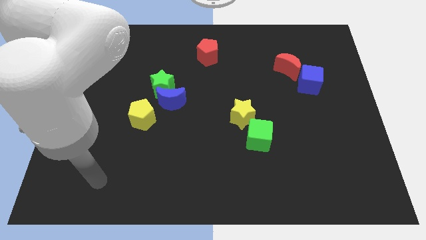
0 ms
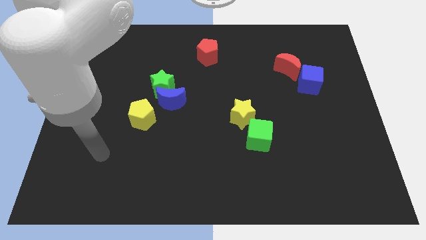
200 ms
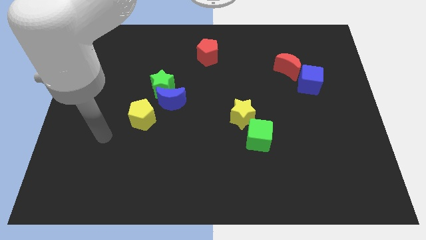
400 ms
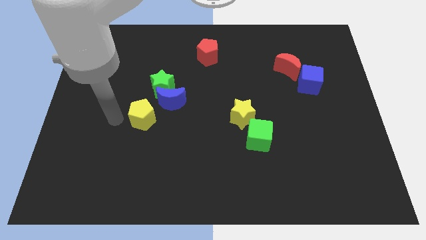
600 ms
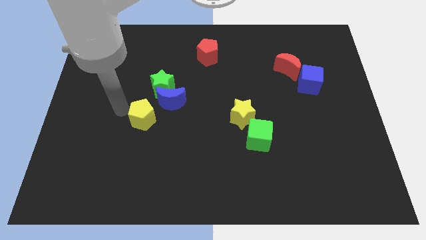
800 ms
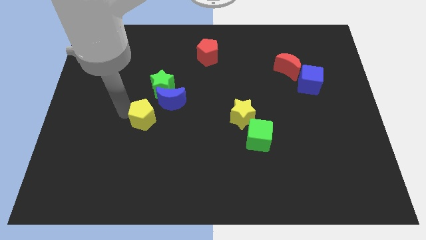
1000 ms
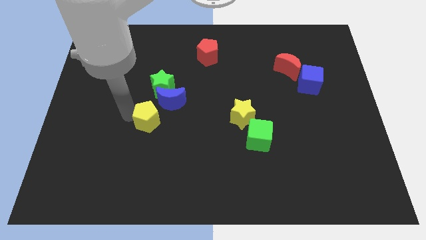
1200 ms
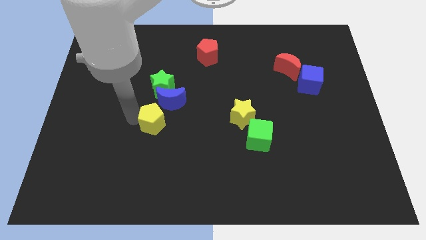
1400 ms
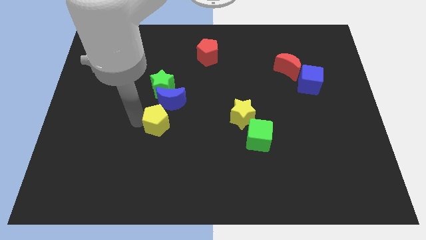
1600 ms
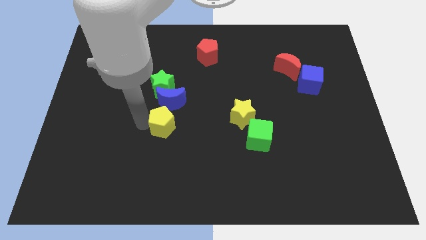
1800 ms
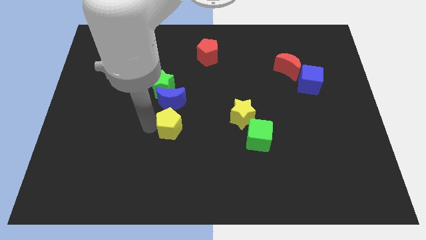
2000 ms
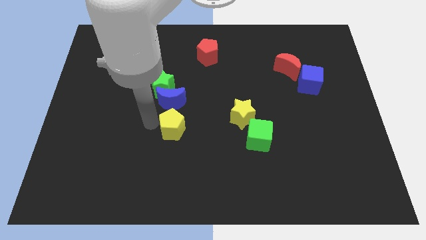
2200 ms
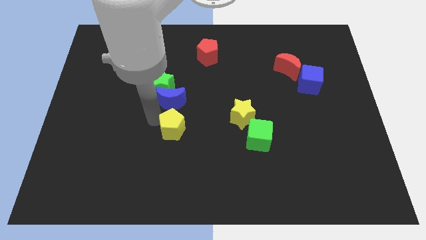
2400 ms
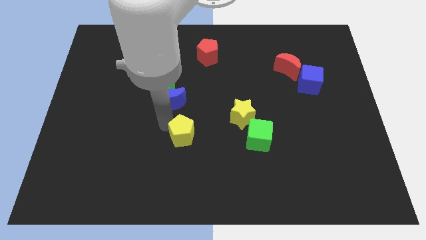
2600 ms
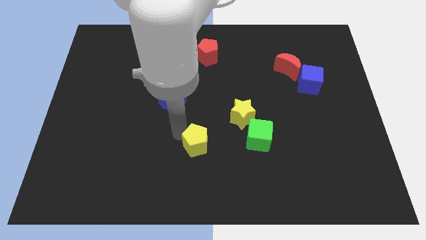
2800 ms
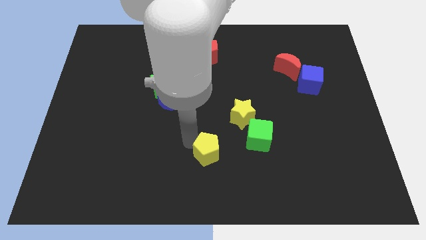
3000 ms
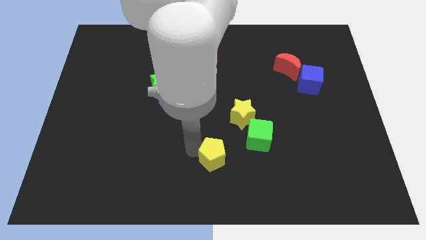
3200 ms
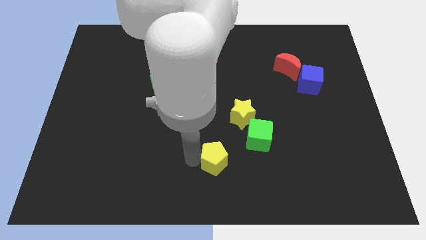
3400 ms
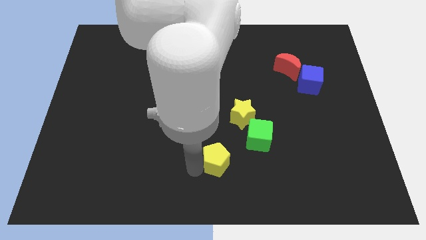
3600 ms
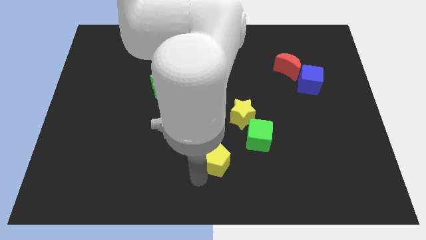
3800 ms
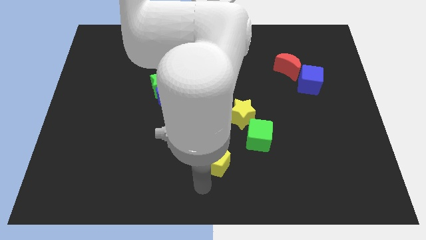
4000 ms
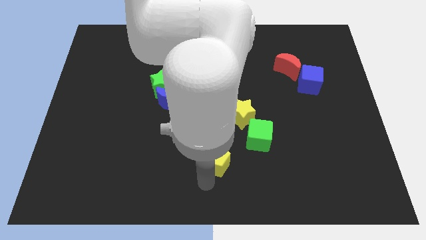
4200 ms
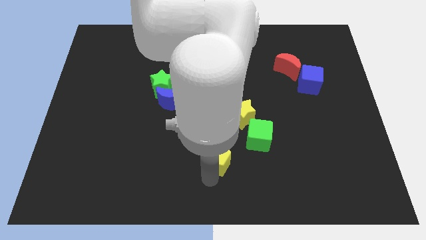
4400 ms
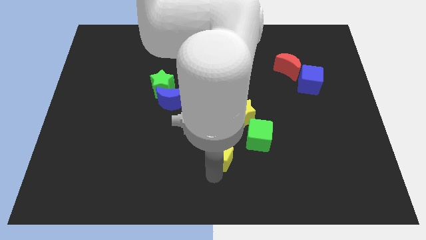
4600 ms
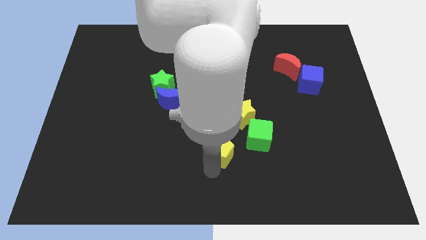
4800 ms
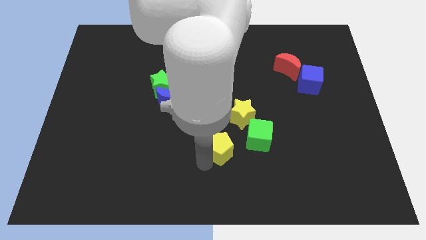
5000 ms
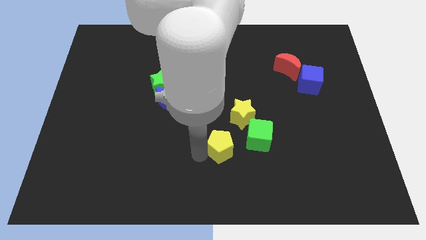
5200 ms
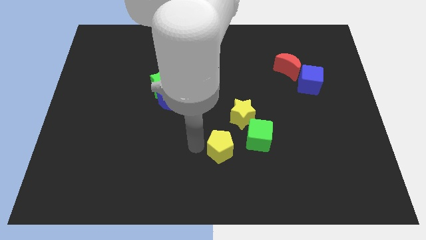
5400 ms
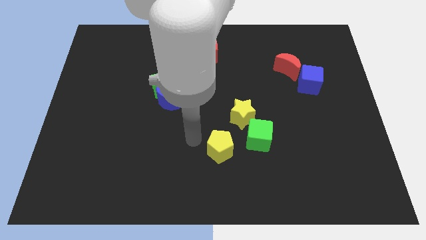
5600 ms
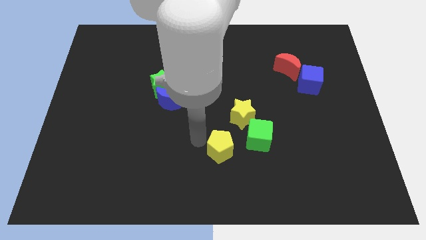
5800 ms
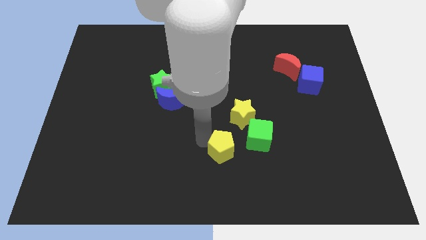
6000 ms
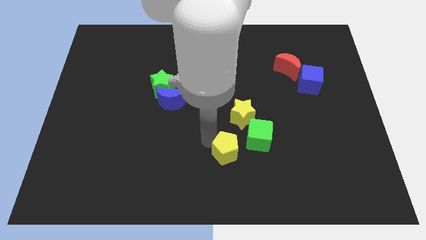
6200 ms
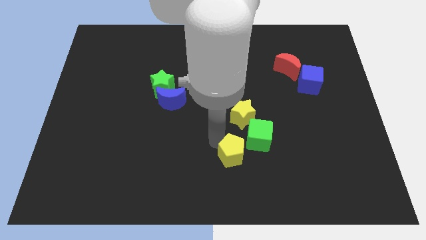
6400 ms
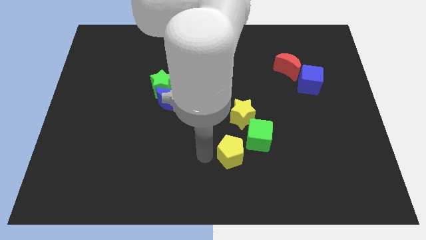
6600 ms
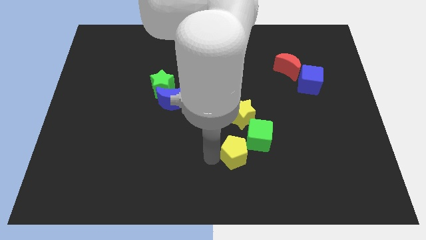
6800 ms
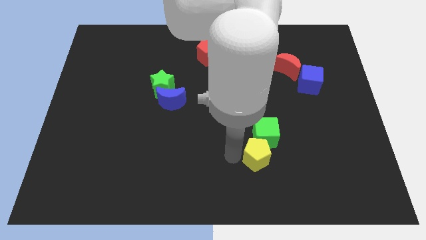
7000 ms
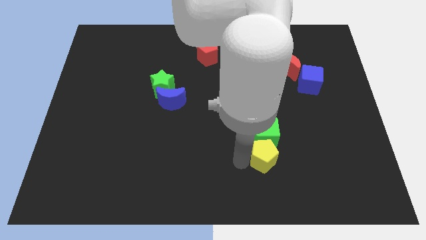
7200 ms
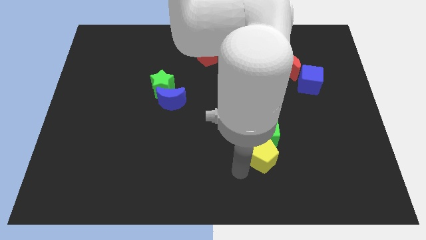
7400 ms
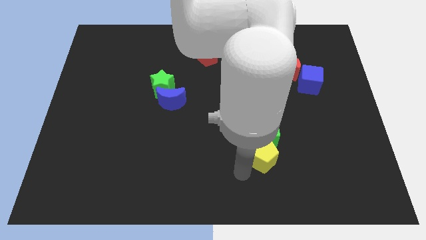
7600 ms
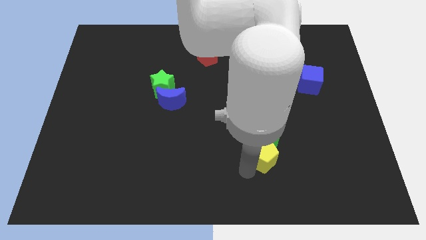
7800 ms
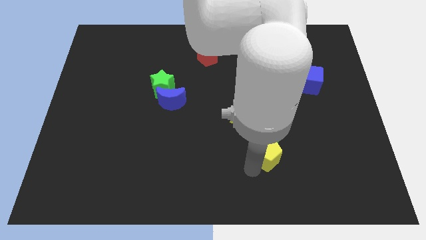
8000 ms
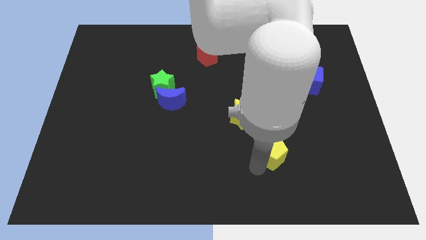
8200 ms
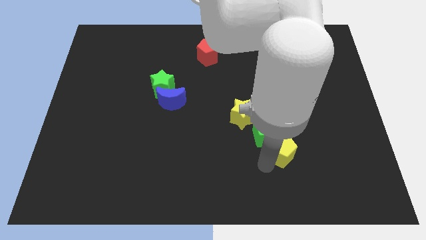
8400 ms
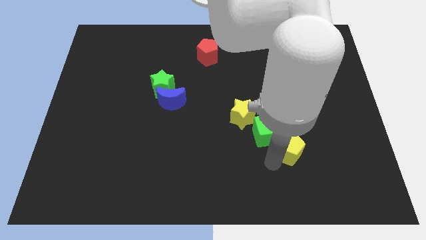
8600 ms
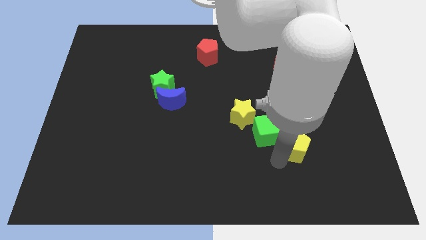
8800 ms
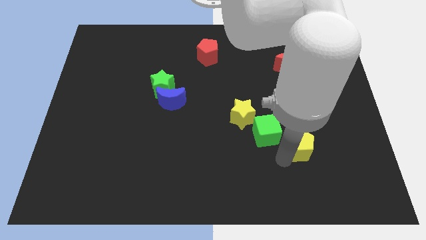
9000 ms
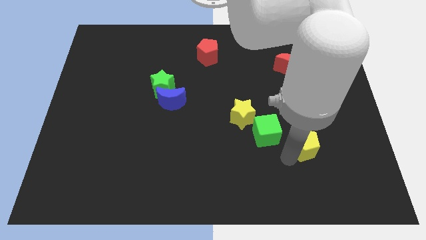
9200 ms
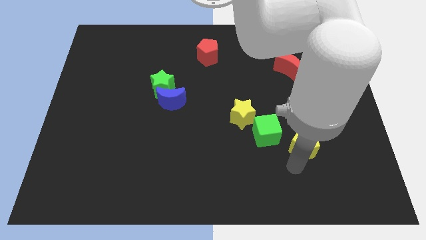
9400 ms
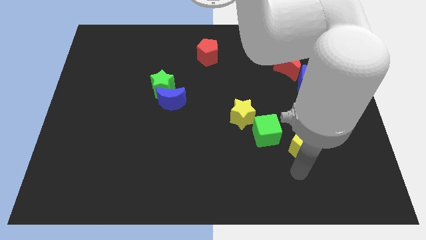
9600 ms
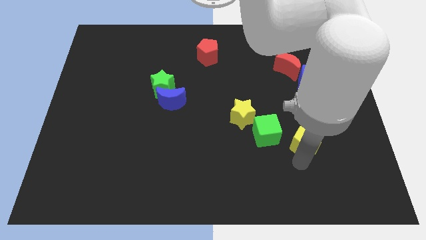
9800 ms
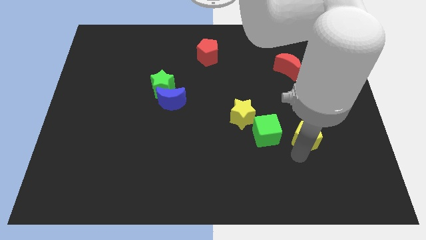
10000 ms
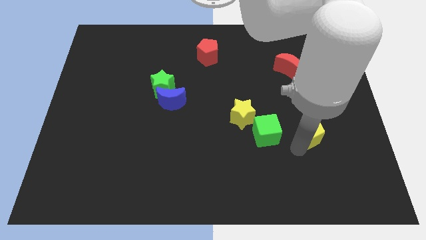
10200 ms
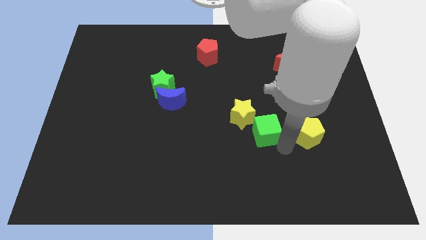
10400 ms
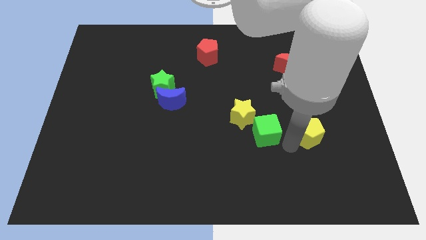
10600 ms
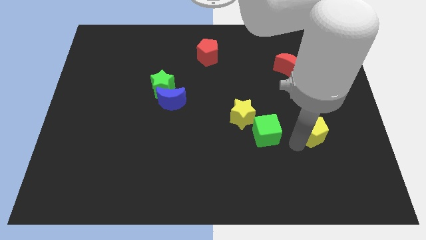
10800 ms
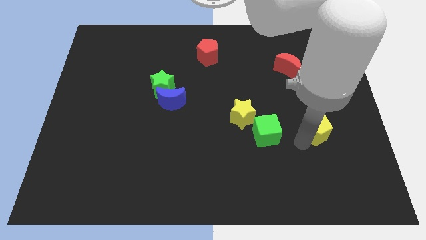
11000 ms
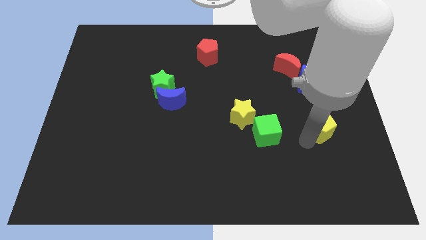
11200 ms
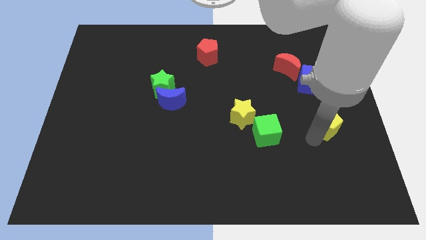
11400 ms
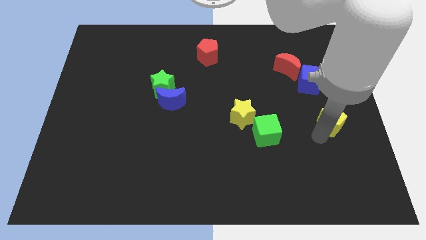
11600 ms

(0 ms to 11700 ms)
slide the yellow pentagon to the right side

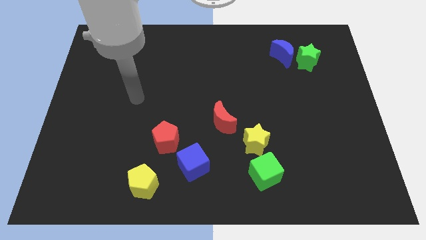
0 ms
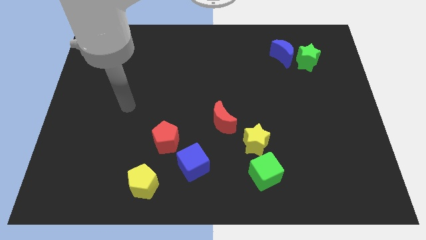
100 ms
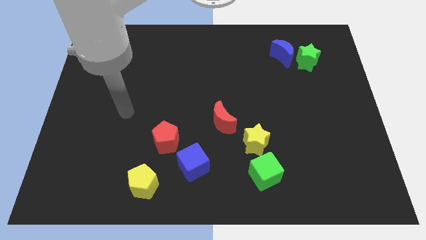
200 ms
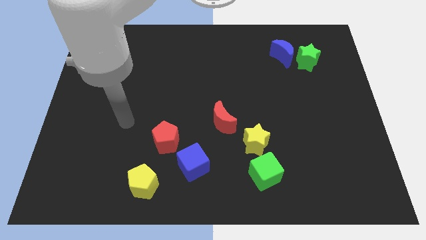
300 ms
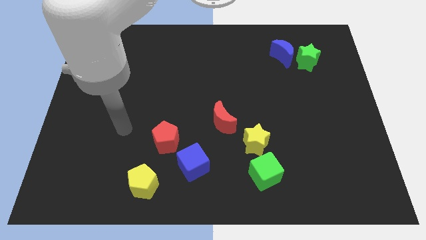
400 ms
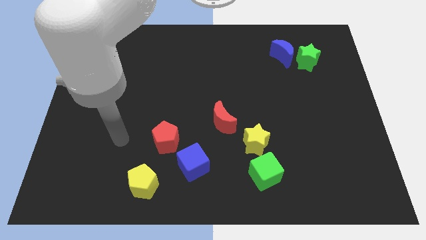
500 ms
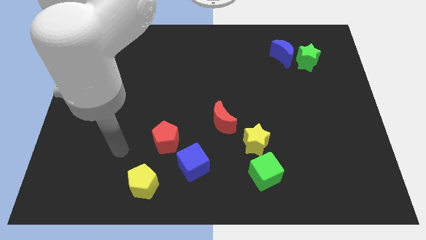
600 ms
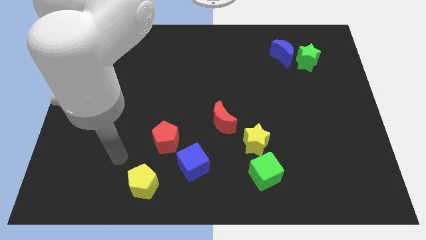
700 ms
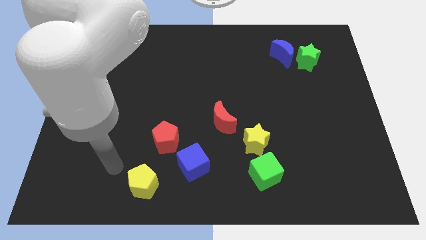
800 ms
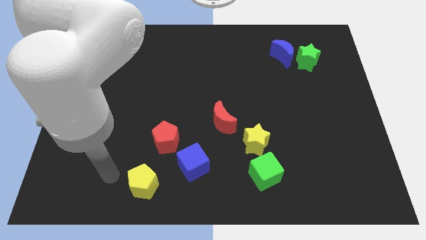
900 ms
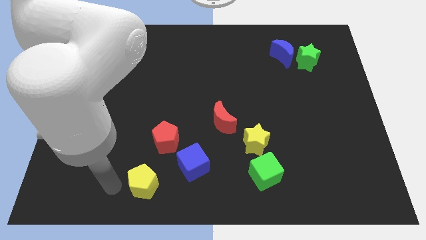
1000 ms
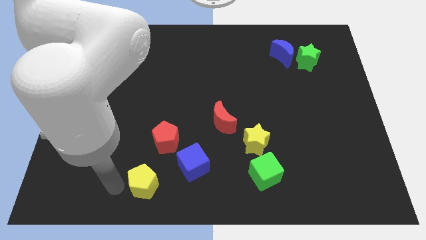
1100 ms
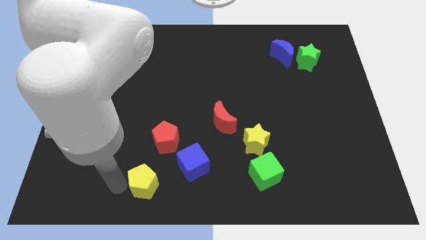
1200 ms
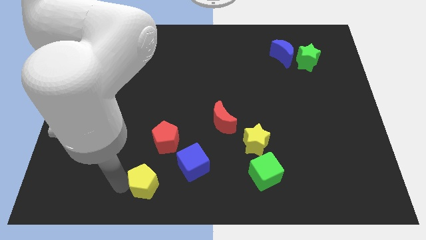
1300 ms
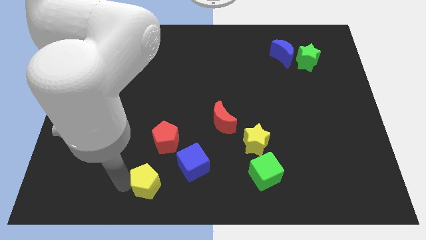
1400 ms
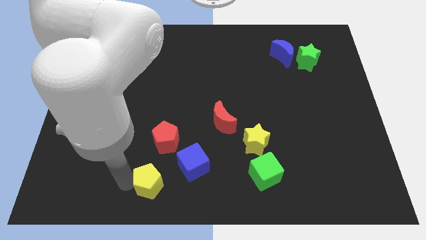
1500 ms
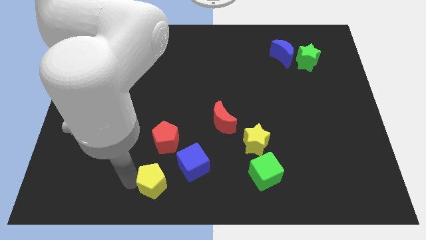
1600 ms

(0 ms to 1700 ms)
slide the yellow pentagon to the bottom
